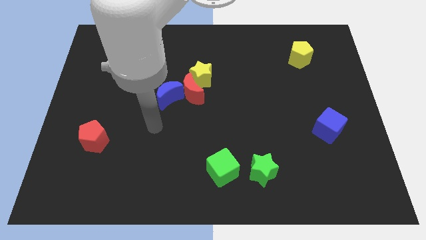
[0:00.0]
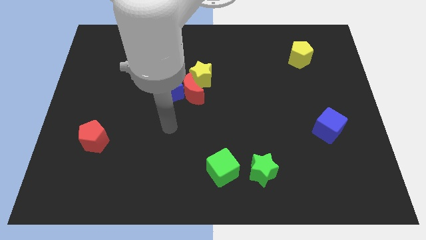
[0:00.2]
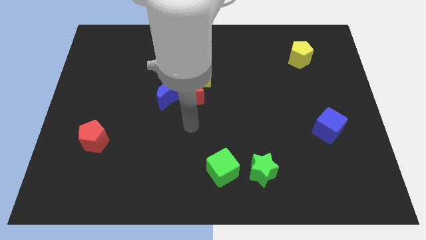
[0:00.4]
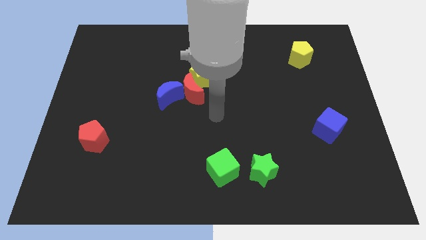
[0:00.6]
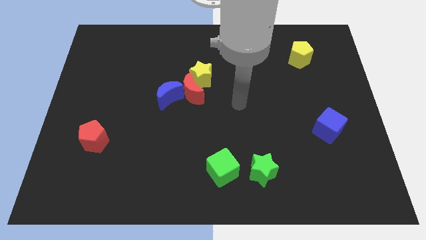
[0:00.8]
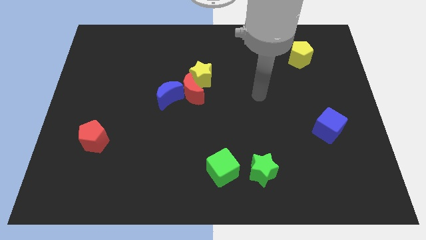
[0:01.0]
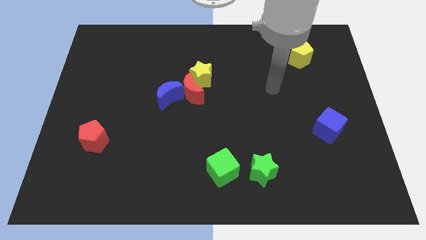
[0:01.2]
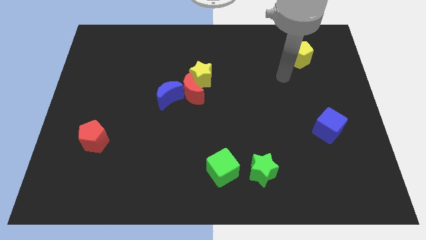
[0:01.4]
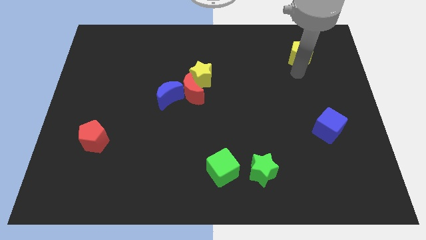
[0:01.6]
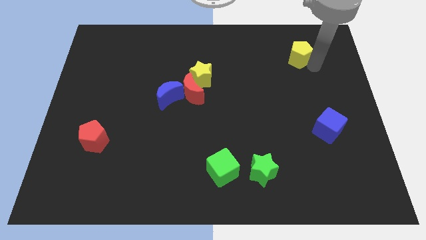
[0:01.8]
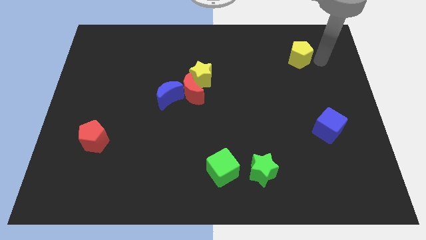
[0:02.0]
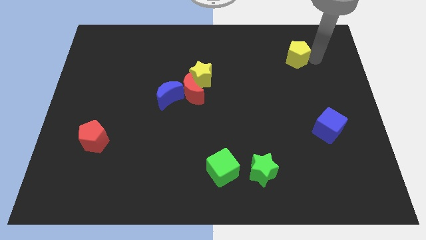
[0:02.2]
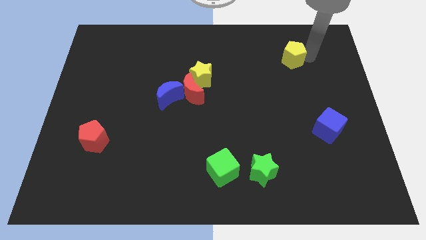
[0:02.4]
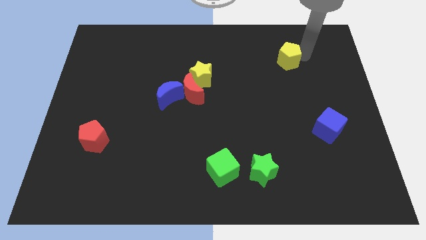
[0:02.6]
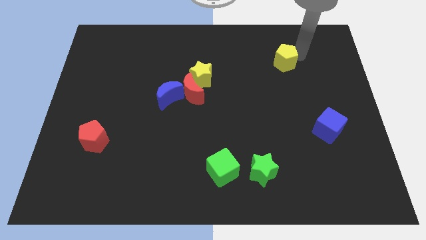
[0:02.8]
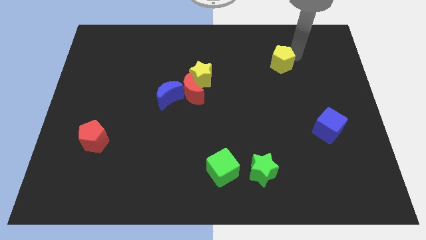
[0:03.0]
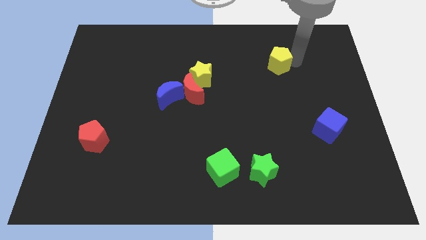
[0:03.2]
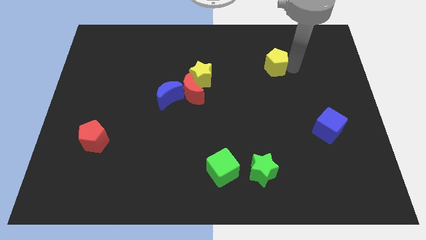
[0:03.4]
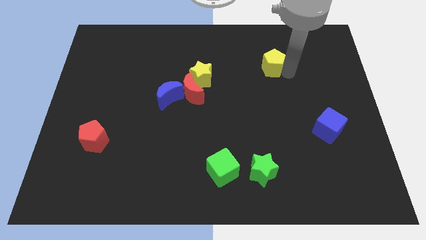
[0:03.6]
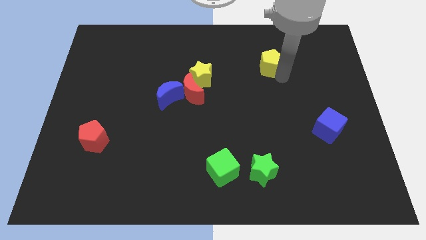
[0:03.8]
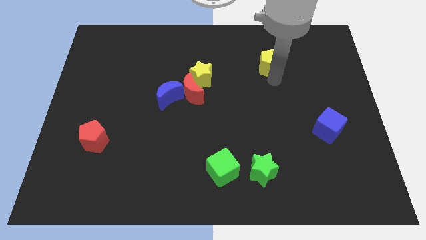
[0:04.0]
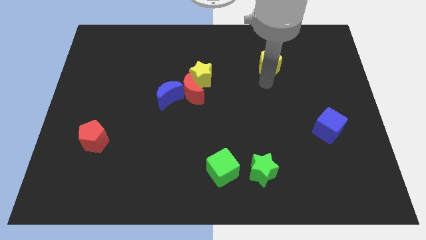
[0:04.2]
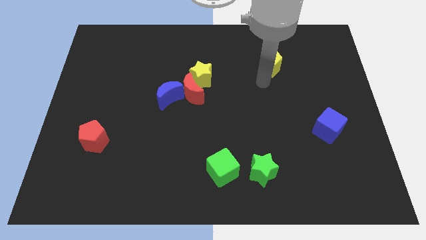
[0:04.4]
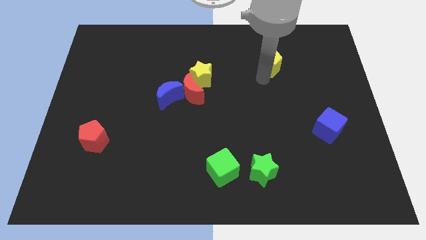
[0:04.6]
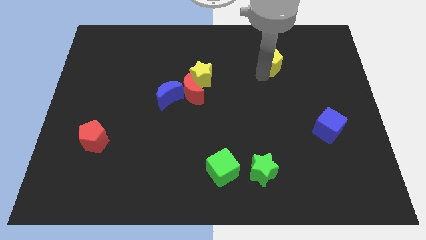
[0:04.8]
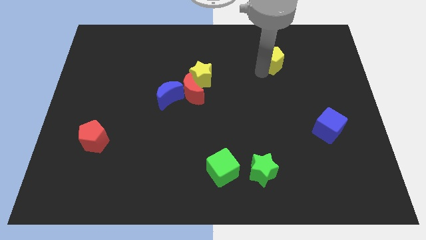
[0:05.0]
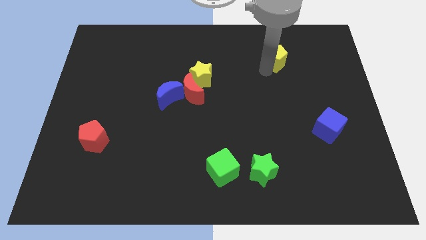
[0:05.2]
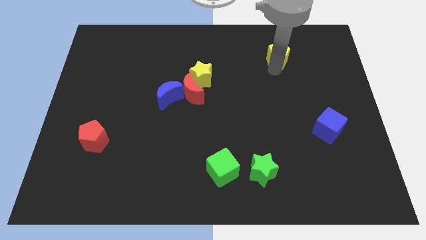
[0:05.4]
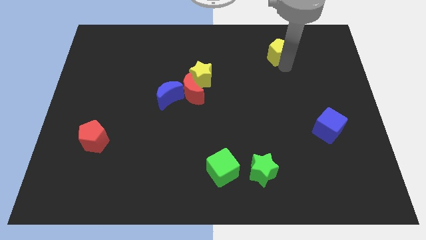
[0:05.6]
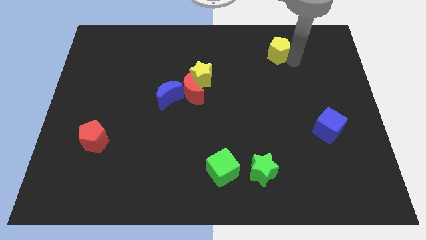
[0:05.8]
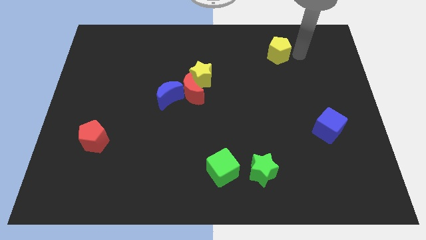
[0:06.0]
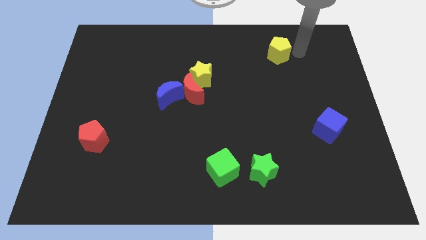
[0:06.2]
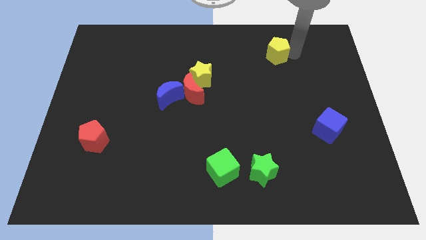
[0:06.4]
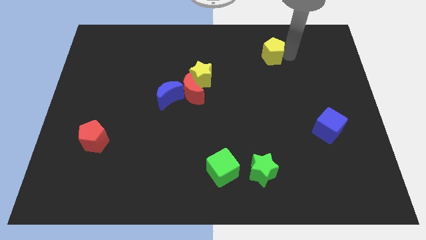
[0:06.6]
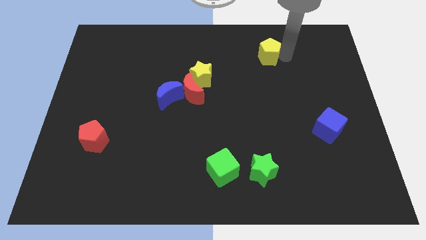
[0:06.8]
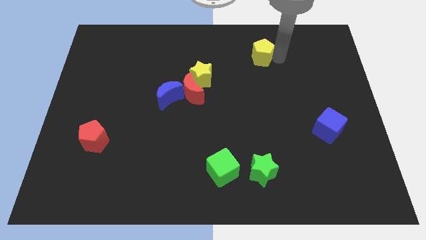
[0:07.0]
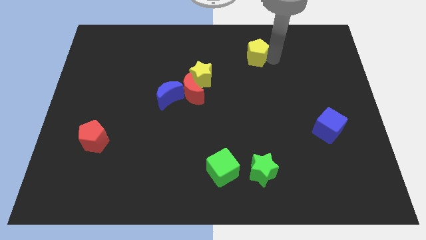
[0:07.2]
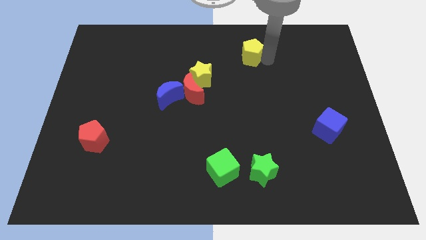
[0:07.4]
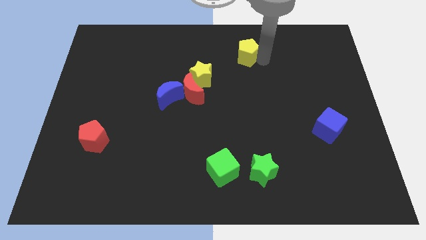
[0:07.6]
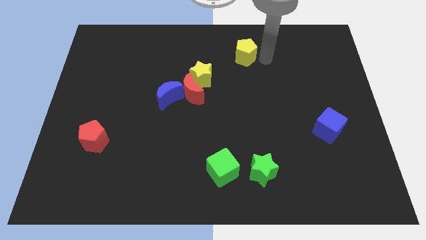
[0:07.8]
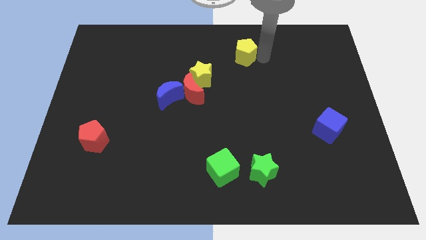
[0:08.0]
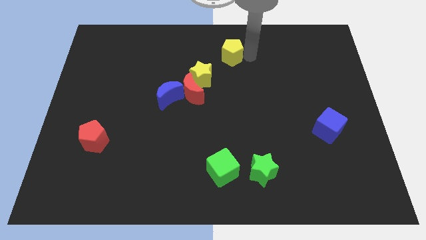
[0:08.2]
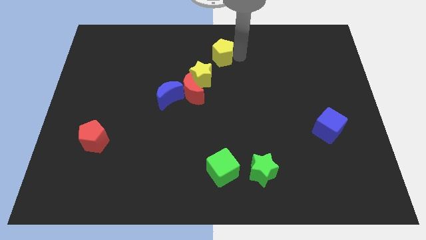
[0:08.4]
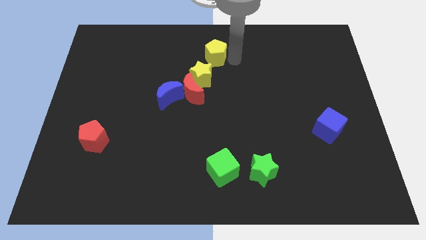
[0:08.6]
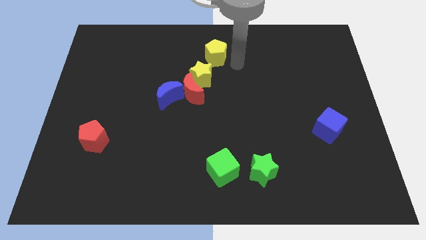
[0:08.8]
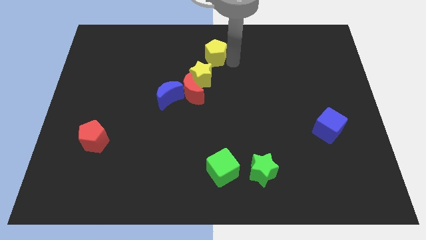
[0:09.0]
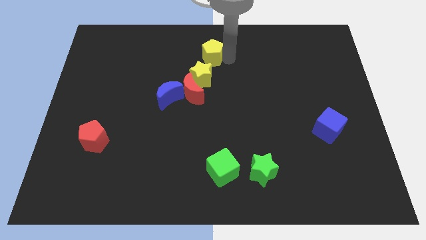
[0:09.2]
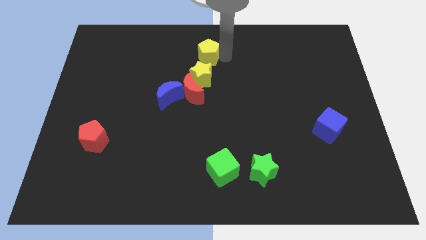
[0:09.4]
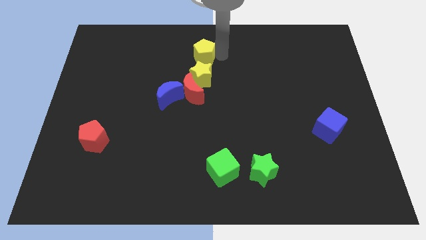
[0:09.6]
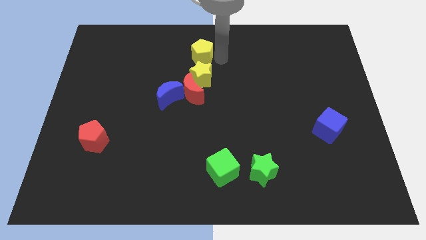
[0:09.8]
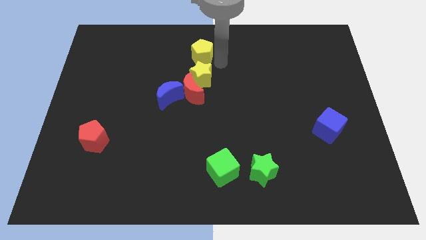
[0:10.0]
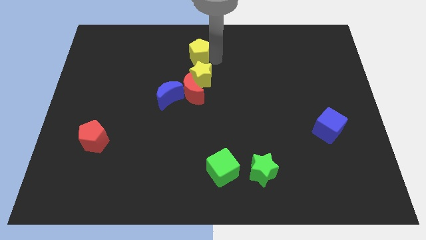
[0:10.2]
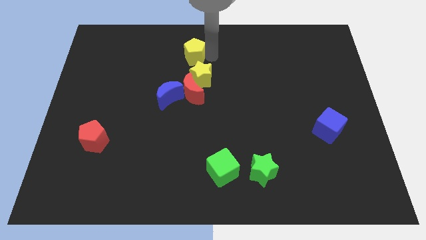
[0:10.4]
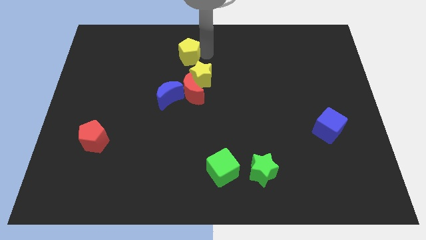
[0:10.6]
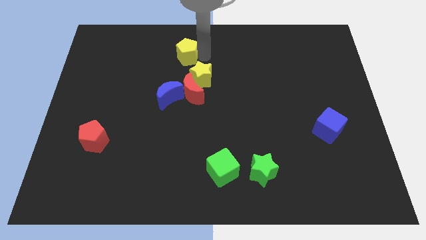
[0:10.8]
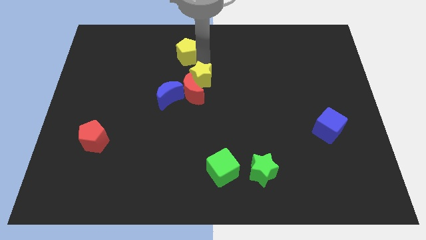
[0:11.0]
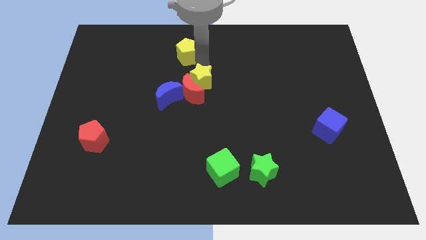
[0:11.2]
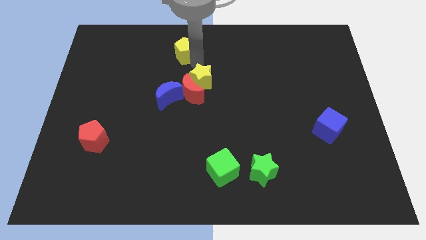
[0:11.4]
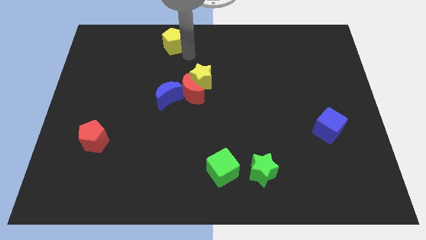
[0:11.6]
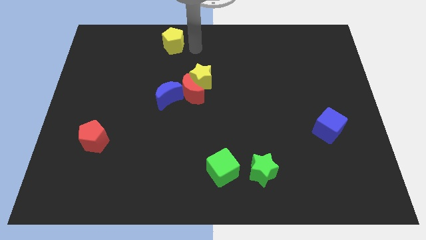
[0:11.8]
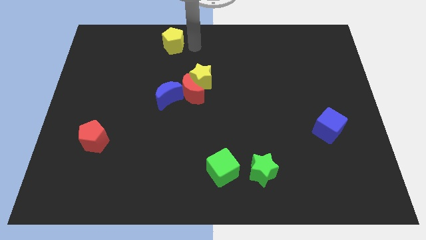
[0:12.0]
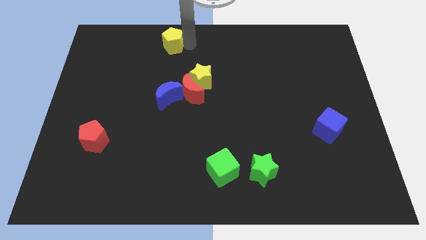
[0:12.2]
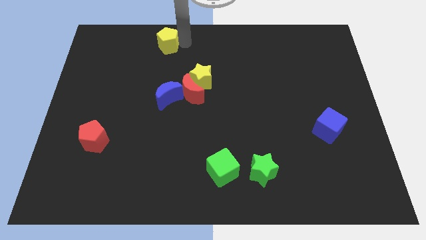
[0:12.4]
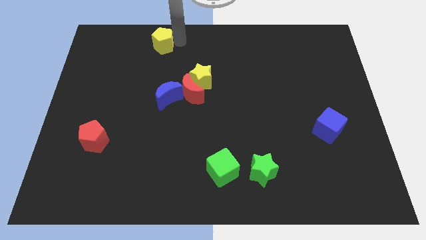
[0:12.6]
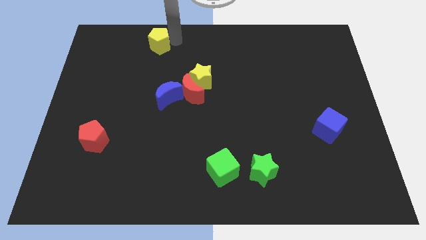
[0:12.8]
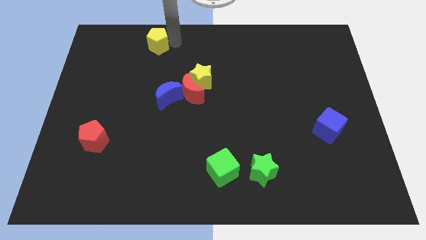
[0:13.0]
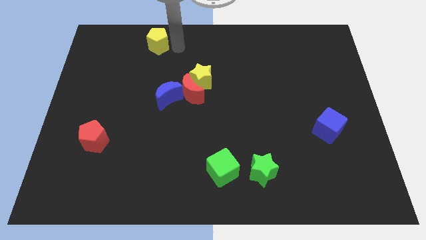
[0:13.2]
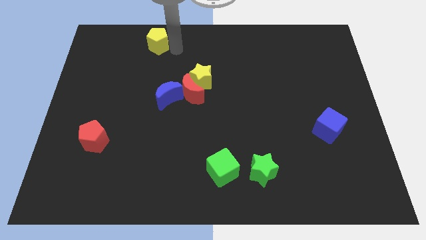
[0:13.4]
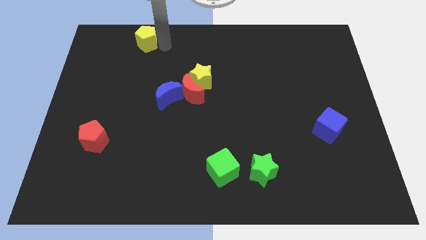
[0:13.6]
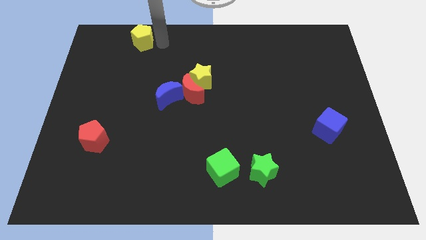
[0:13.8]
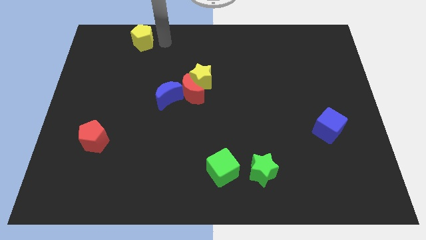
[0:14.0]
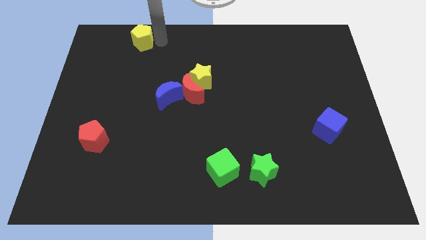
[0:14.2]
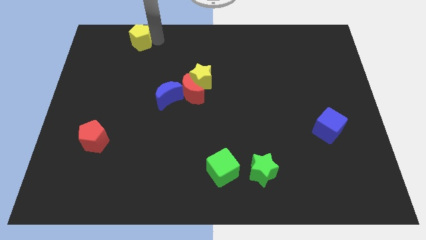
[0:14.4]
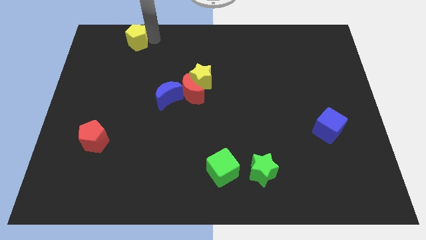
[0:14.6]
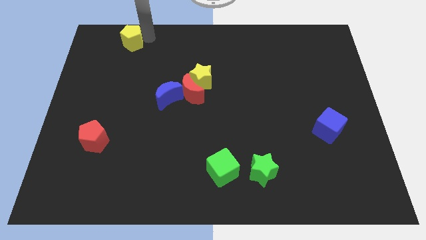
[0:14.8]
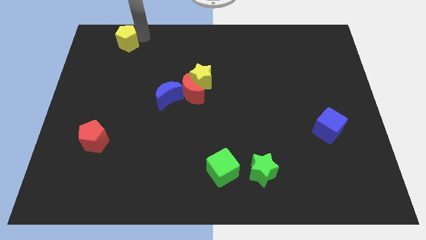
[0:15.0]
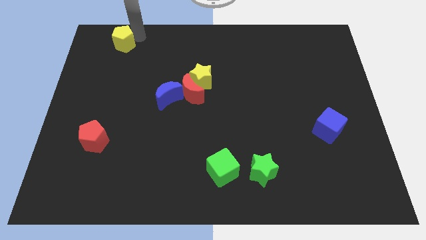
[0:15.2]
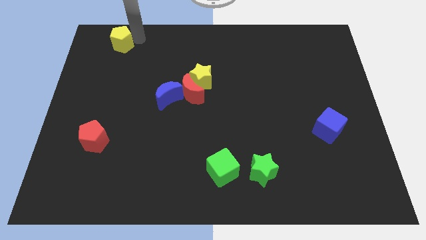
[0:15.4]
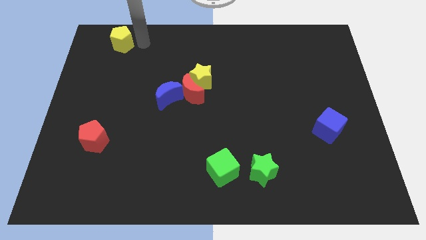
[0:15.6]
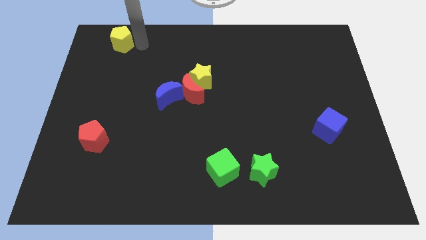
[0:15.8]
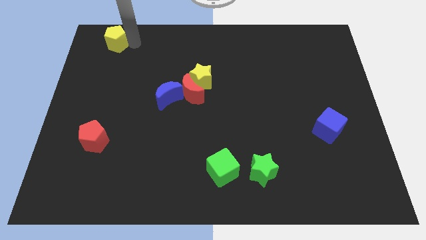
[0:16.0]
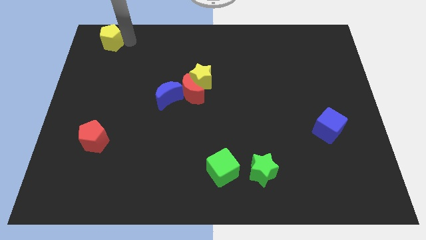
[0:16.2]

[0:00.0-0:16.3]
put the yellow pentagon to the top left
